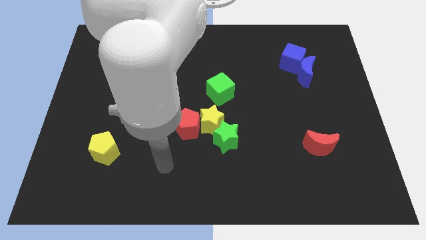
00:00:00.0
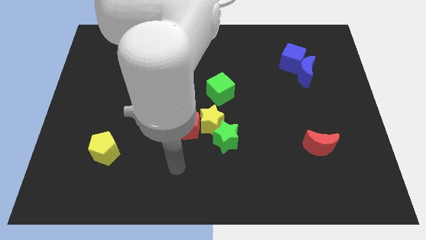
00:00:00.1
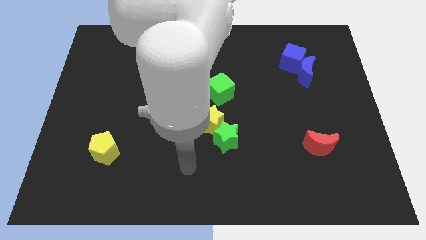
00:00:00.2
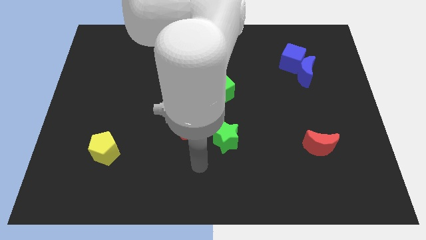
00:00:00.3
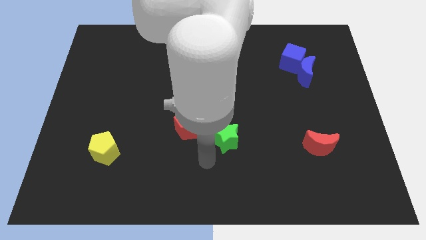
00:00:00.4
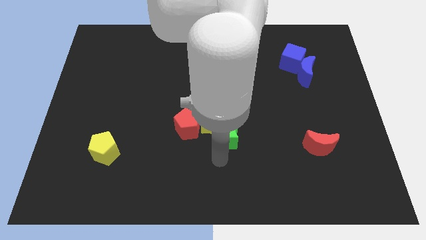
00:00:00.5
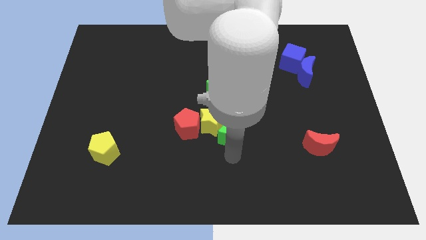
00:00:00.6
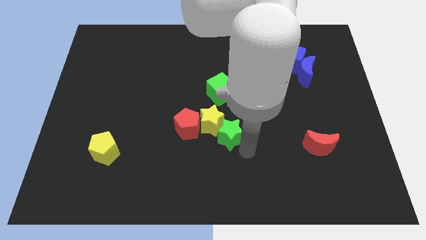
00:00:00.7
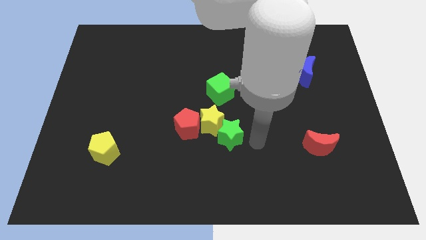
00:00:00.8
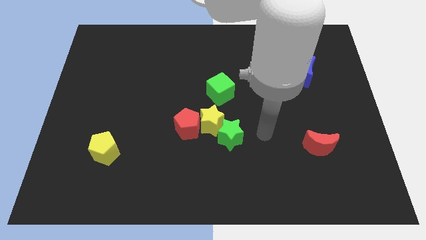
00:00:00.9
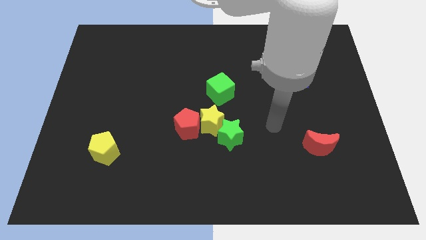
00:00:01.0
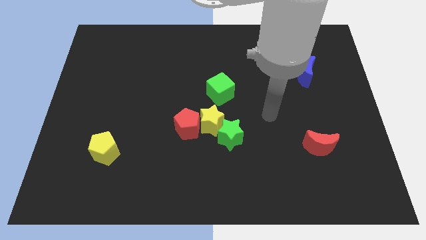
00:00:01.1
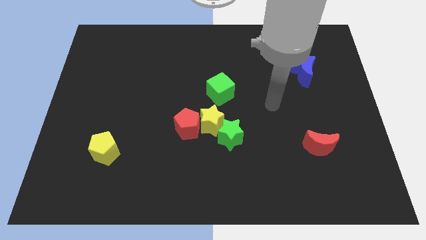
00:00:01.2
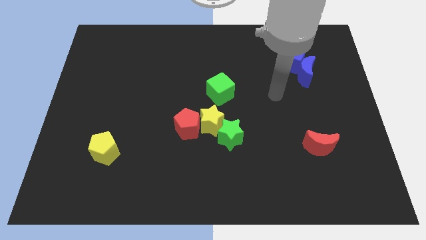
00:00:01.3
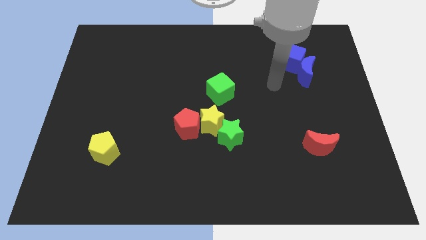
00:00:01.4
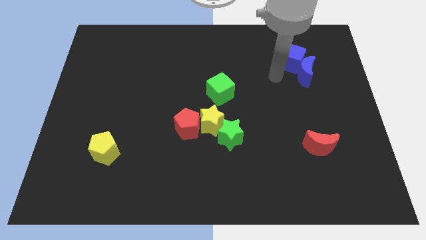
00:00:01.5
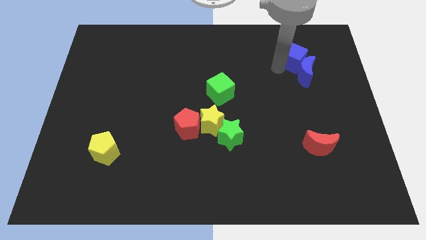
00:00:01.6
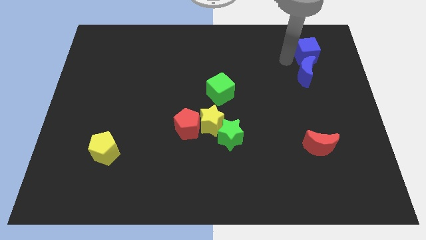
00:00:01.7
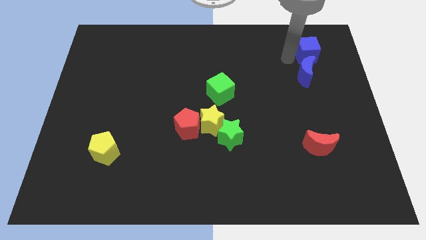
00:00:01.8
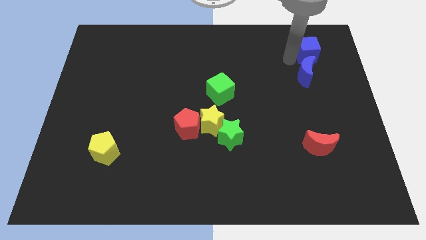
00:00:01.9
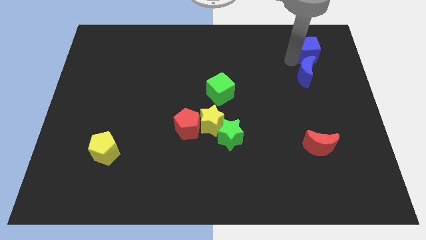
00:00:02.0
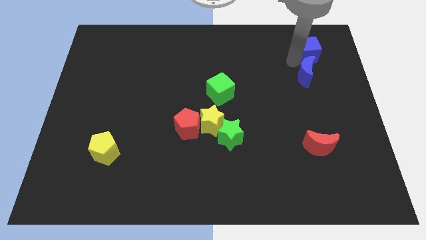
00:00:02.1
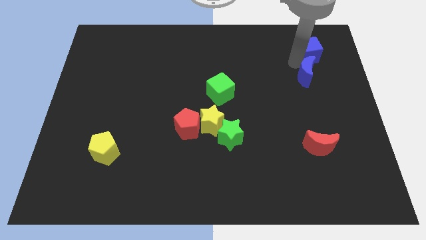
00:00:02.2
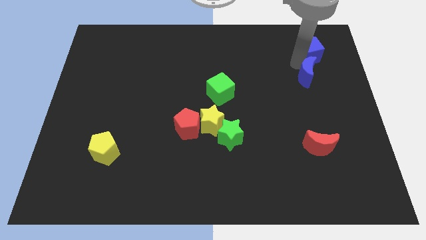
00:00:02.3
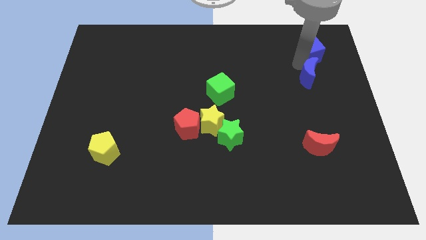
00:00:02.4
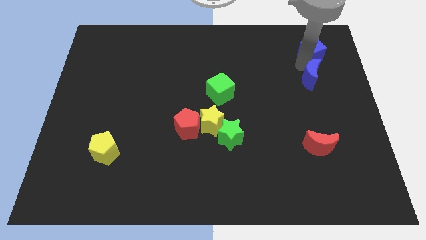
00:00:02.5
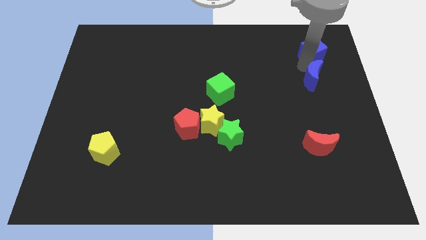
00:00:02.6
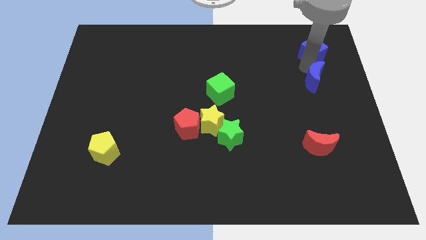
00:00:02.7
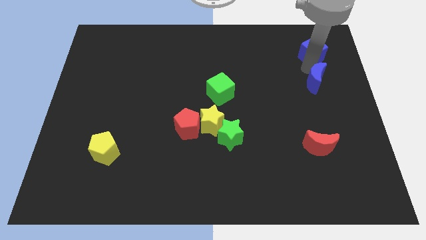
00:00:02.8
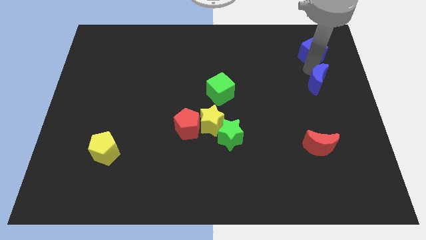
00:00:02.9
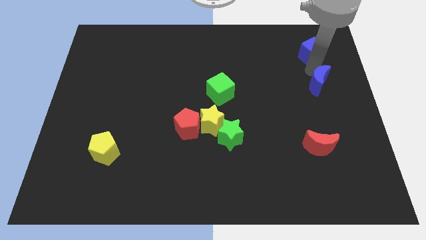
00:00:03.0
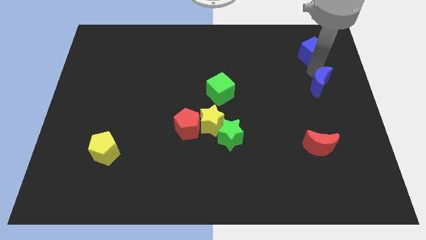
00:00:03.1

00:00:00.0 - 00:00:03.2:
separate the blue moon from the blue cube

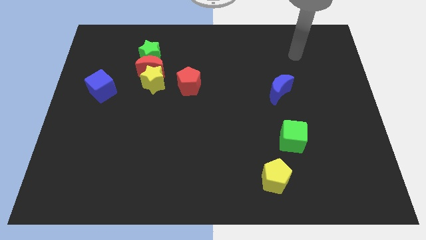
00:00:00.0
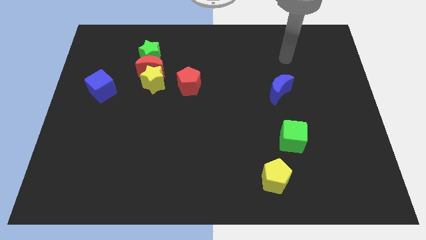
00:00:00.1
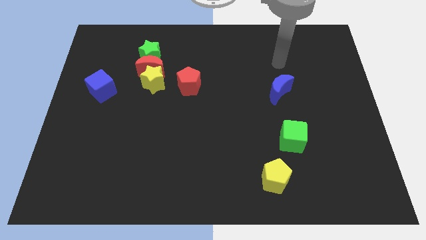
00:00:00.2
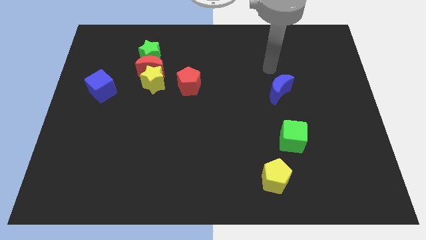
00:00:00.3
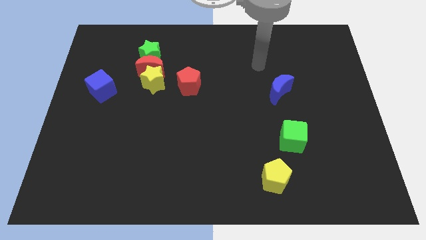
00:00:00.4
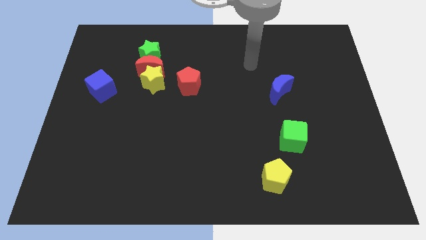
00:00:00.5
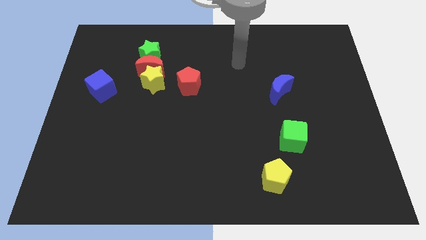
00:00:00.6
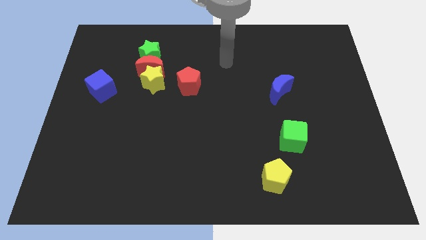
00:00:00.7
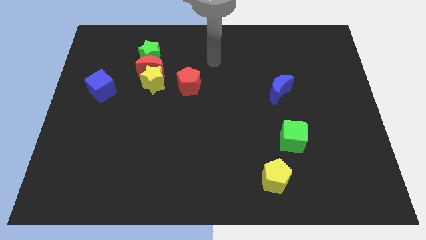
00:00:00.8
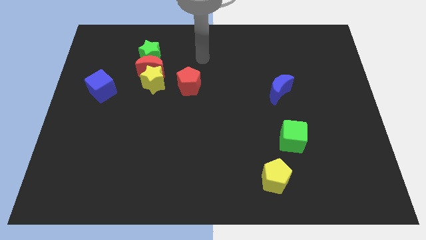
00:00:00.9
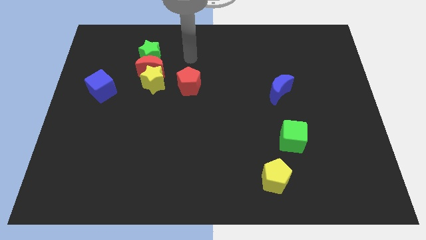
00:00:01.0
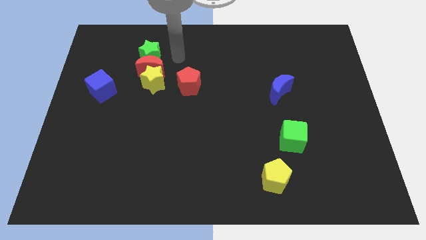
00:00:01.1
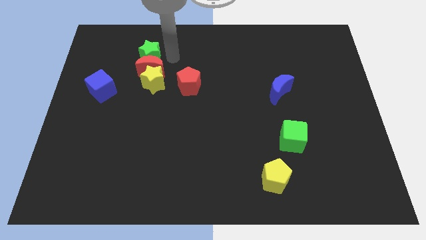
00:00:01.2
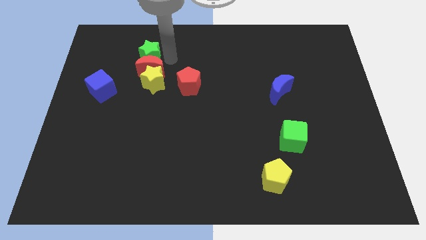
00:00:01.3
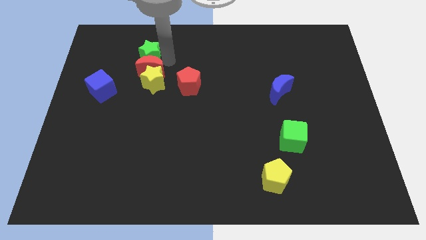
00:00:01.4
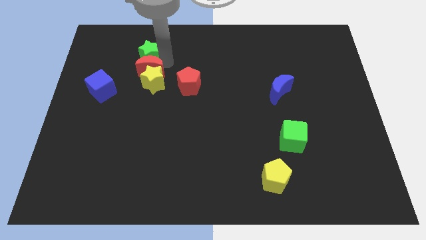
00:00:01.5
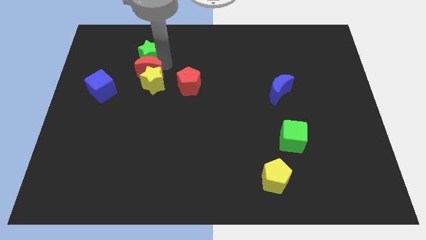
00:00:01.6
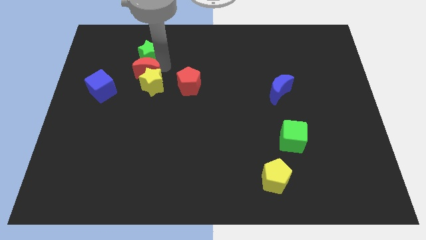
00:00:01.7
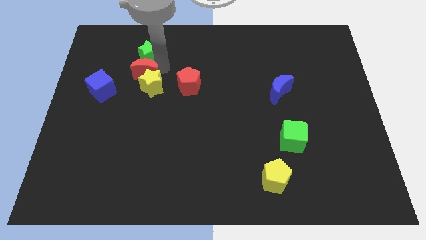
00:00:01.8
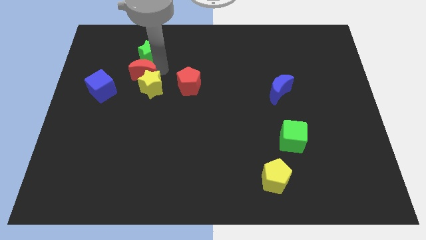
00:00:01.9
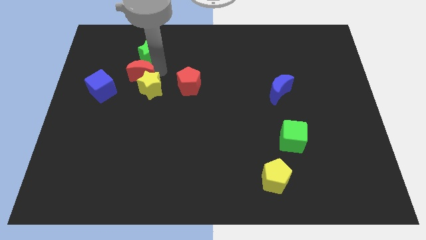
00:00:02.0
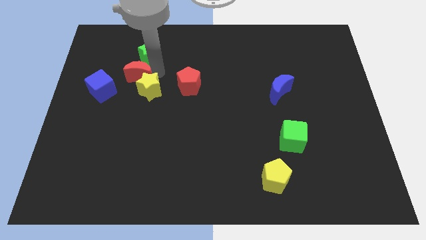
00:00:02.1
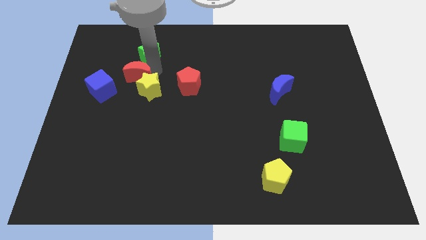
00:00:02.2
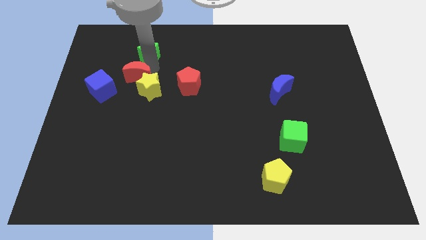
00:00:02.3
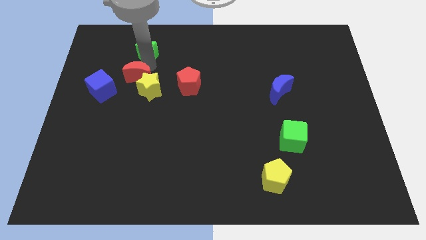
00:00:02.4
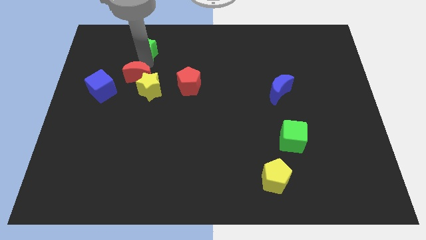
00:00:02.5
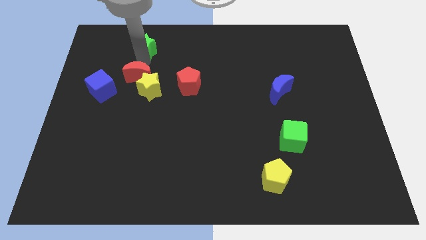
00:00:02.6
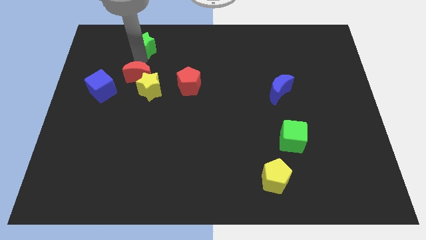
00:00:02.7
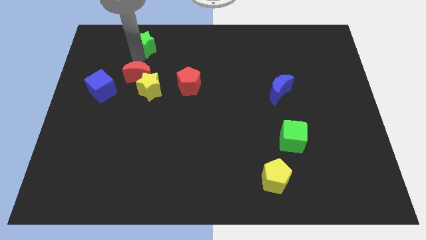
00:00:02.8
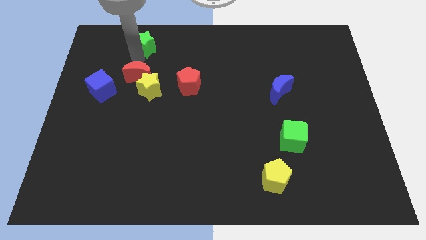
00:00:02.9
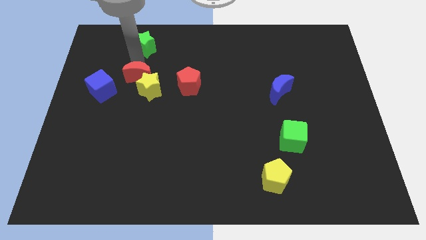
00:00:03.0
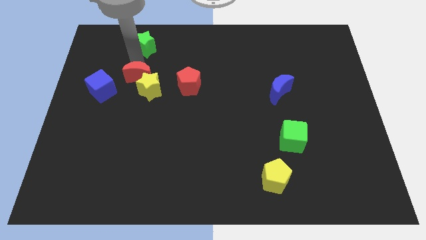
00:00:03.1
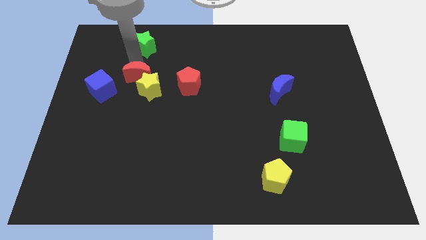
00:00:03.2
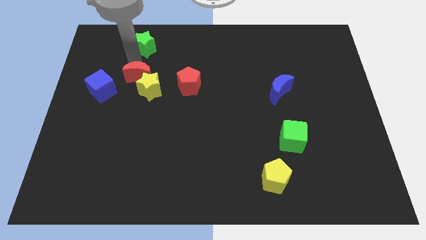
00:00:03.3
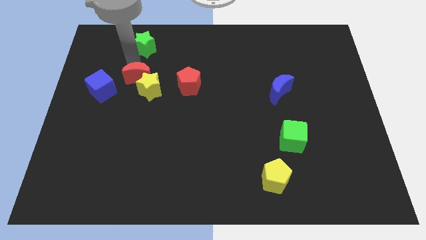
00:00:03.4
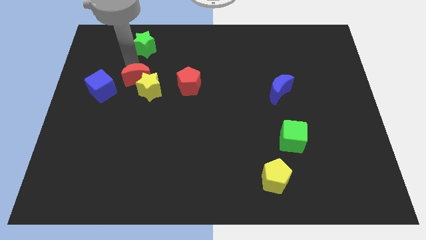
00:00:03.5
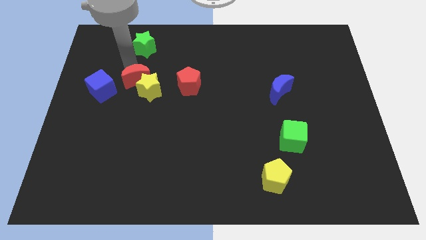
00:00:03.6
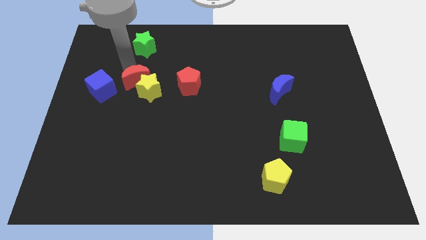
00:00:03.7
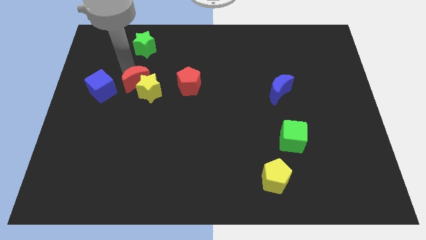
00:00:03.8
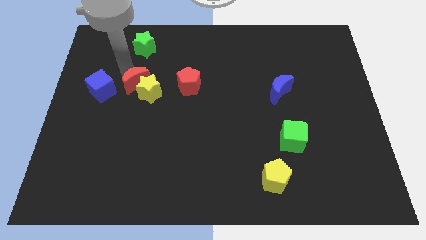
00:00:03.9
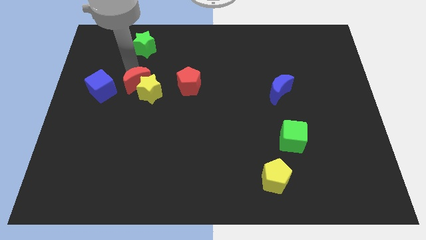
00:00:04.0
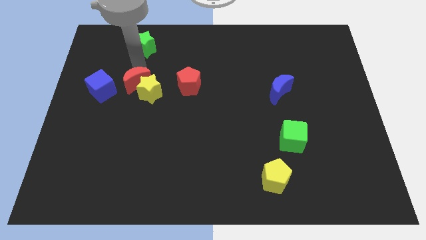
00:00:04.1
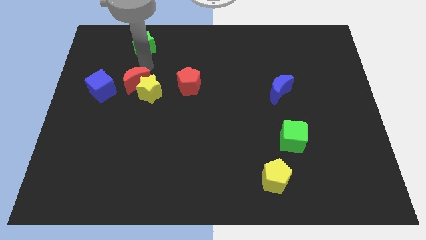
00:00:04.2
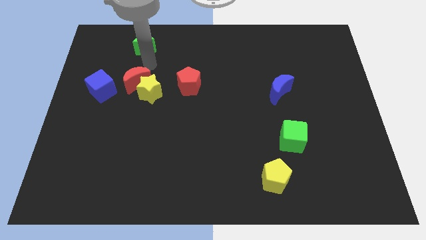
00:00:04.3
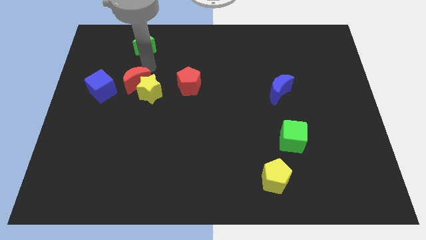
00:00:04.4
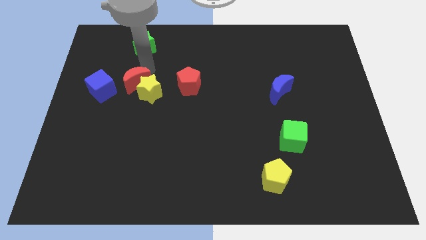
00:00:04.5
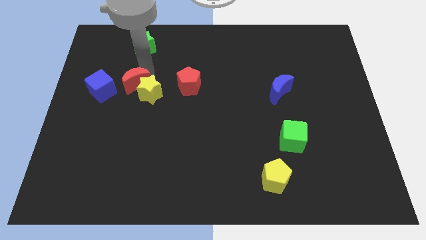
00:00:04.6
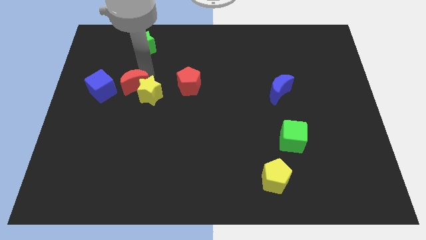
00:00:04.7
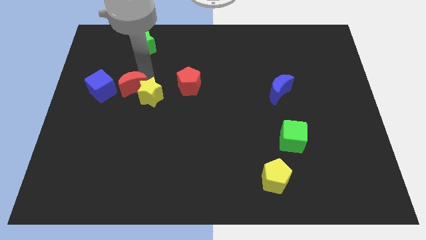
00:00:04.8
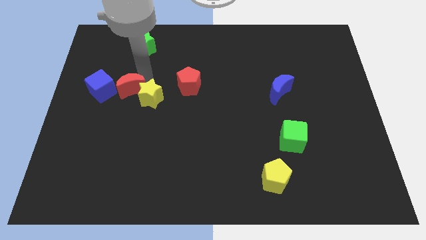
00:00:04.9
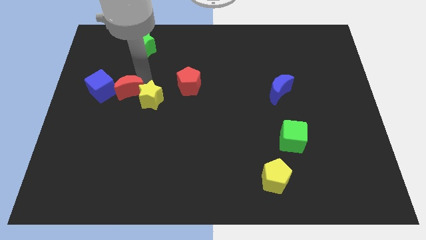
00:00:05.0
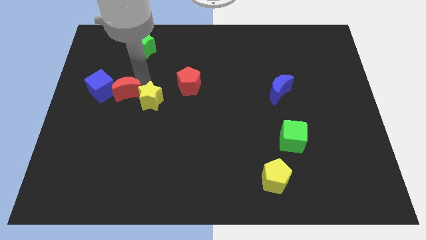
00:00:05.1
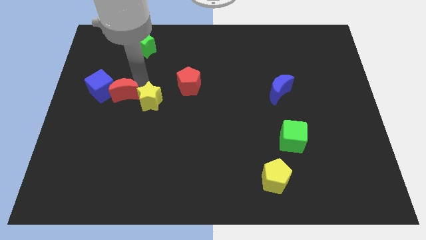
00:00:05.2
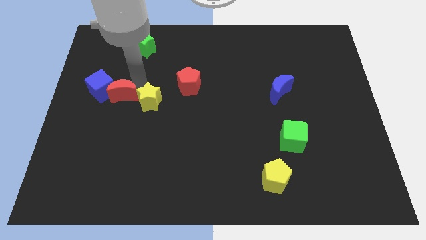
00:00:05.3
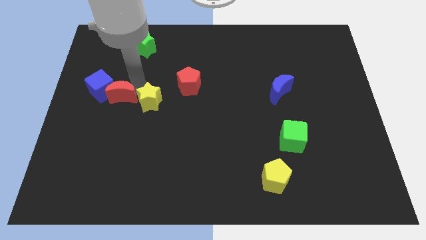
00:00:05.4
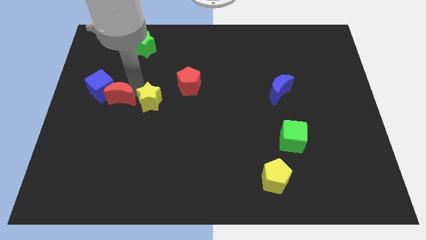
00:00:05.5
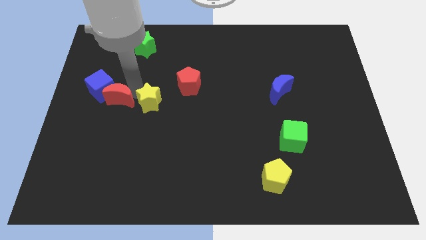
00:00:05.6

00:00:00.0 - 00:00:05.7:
move the red moon away from the yellow star and green star

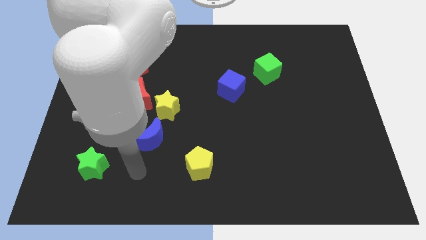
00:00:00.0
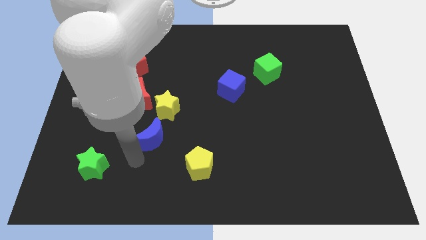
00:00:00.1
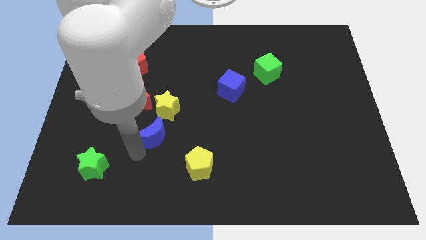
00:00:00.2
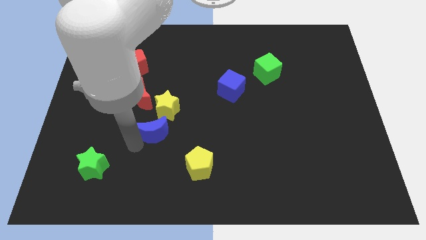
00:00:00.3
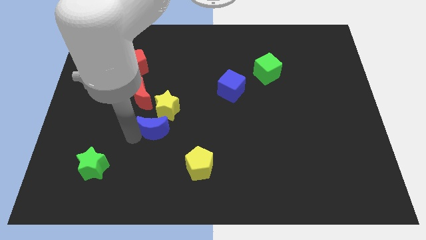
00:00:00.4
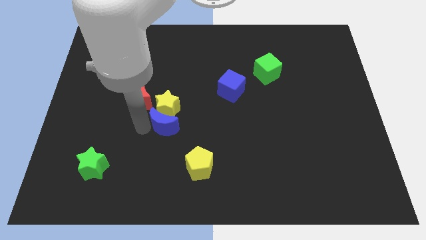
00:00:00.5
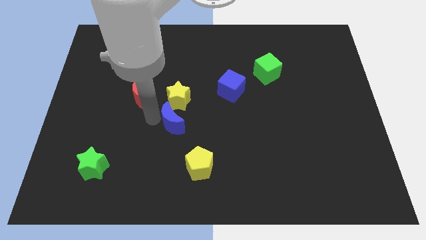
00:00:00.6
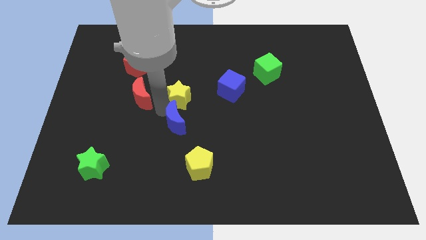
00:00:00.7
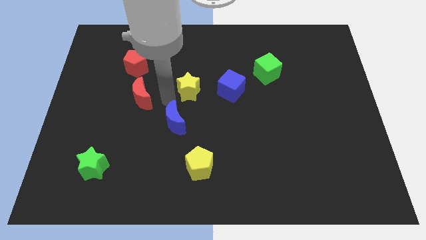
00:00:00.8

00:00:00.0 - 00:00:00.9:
separate the red moon from the yellow star
